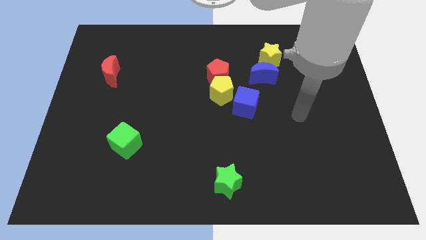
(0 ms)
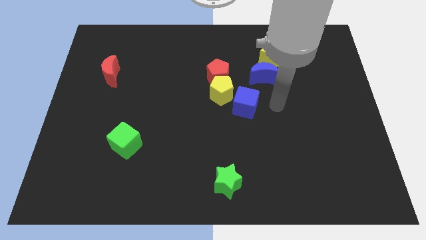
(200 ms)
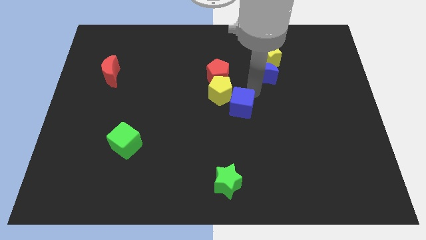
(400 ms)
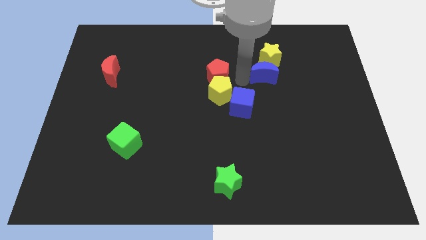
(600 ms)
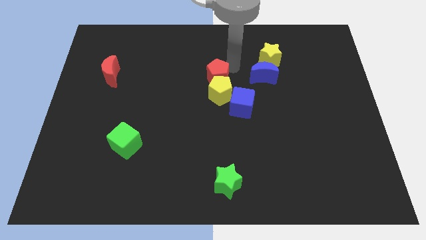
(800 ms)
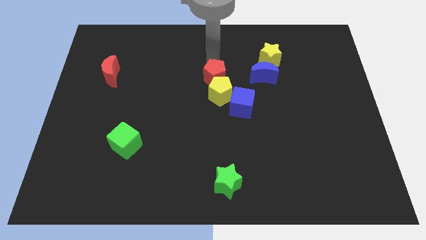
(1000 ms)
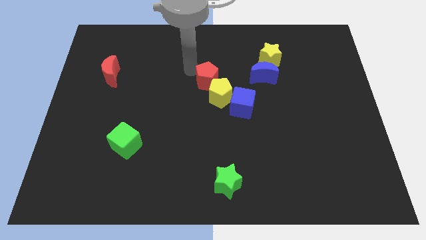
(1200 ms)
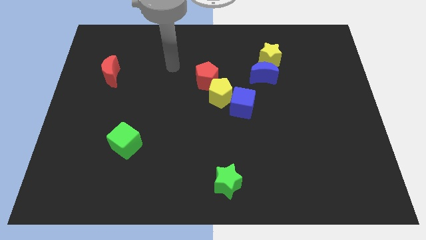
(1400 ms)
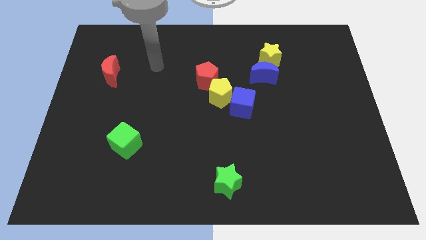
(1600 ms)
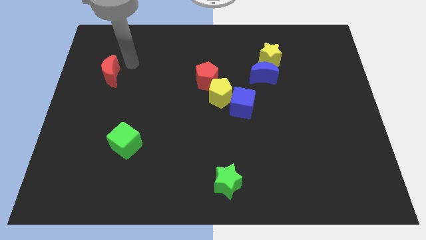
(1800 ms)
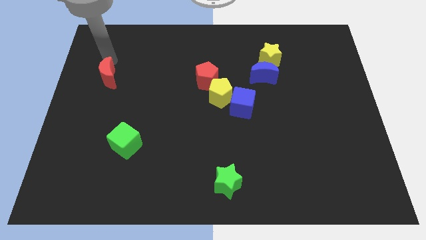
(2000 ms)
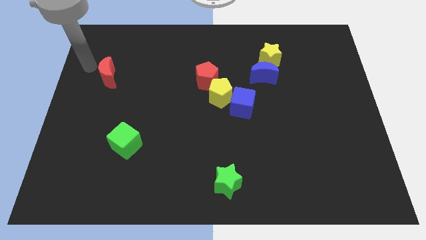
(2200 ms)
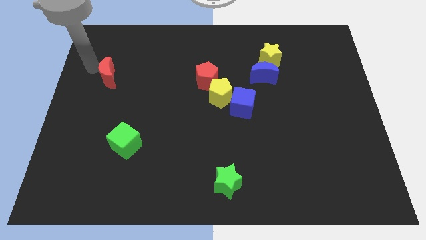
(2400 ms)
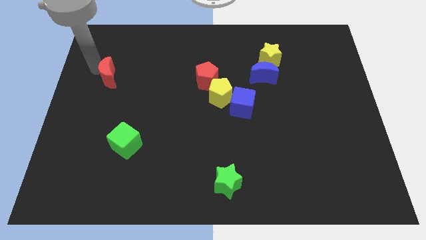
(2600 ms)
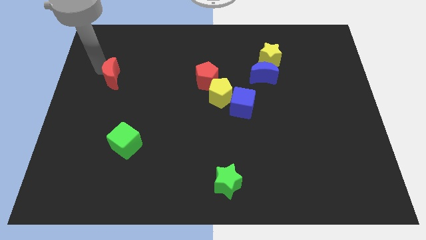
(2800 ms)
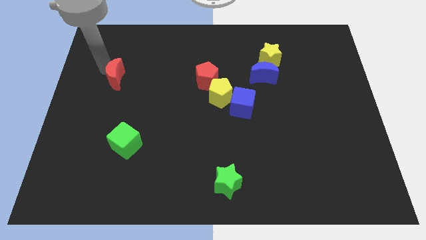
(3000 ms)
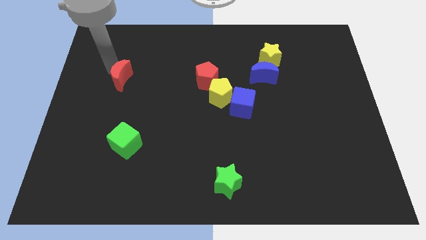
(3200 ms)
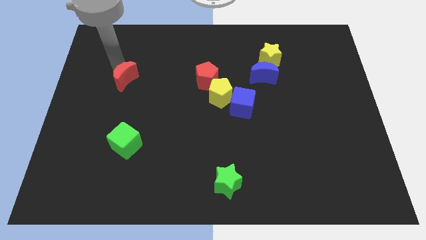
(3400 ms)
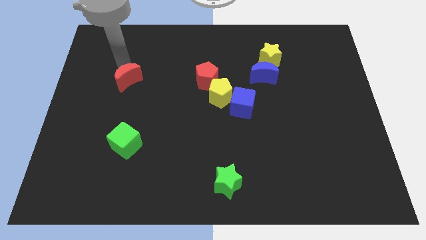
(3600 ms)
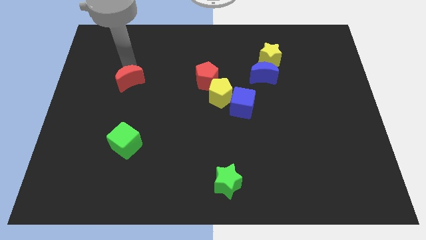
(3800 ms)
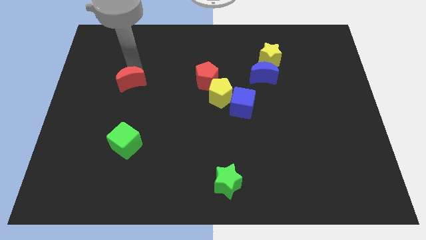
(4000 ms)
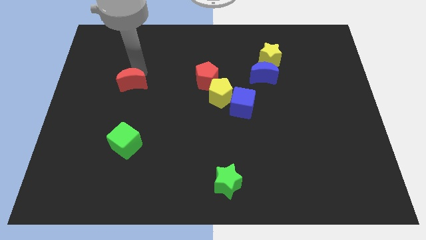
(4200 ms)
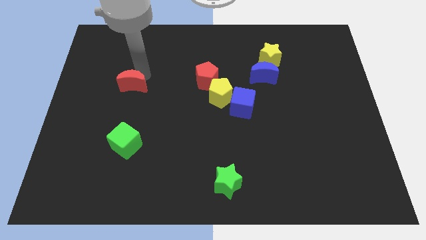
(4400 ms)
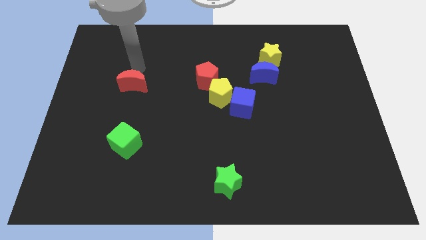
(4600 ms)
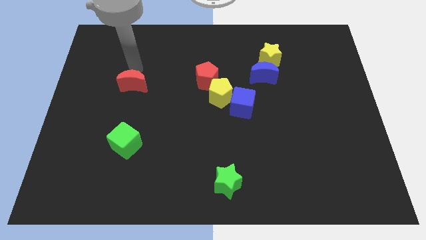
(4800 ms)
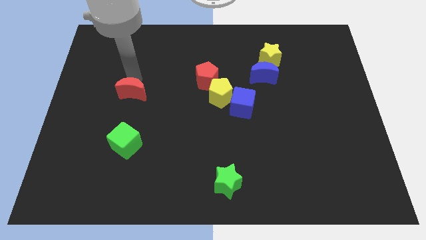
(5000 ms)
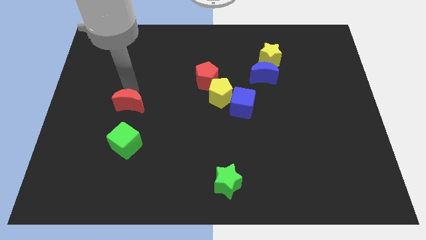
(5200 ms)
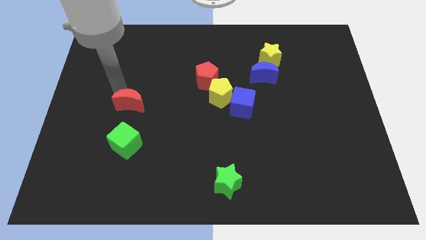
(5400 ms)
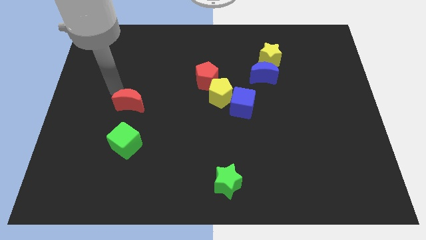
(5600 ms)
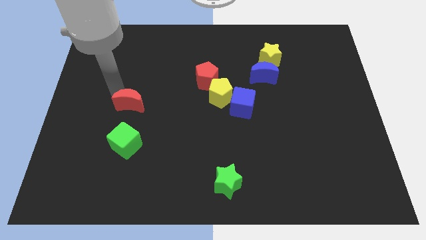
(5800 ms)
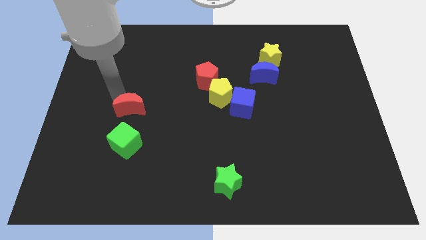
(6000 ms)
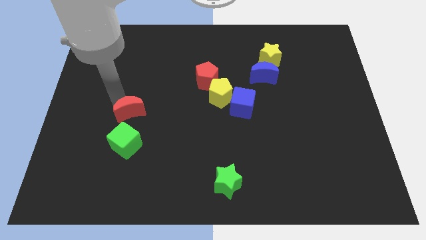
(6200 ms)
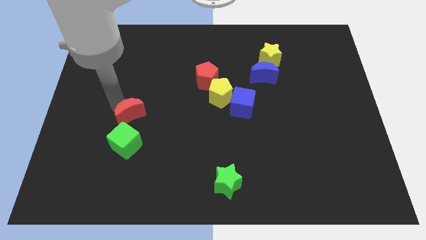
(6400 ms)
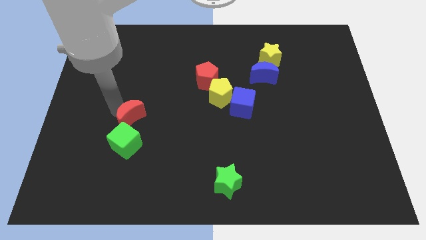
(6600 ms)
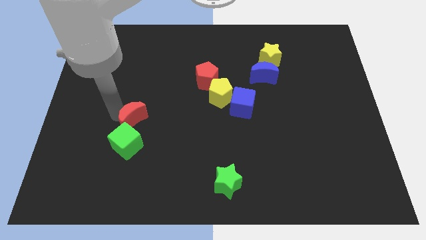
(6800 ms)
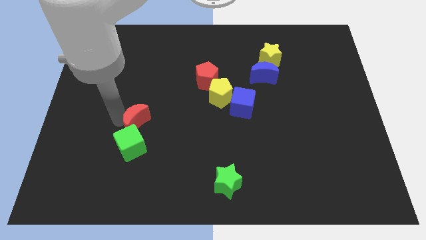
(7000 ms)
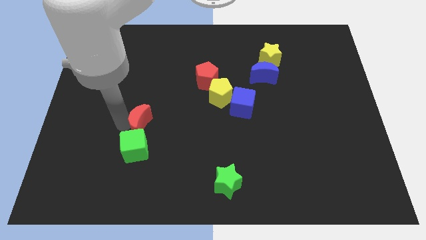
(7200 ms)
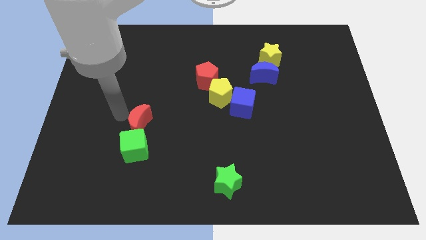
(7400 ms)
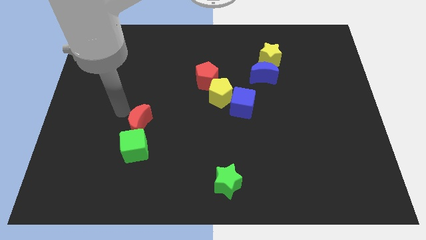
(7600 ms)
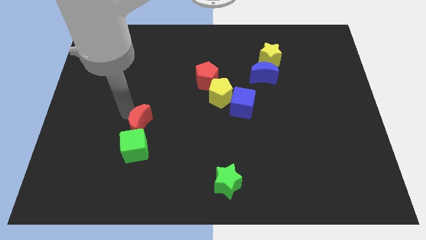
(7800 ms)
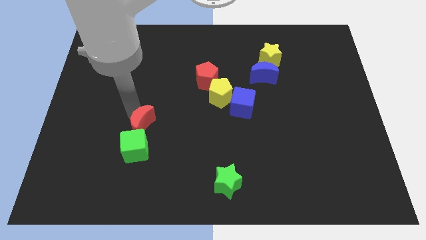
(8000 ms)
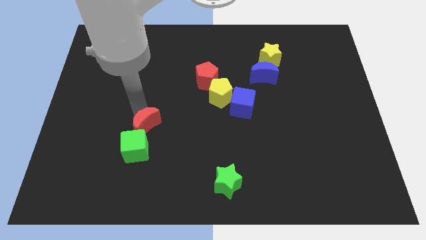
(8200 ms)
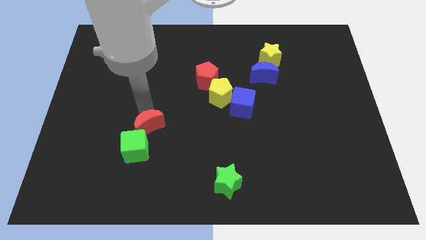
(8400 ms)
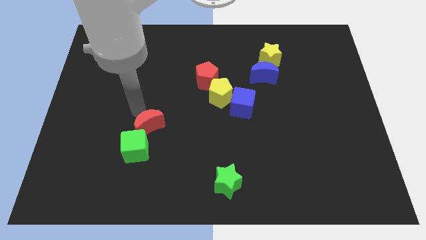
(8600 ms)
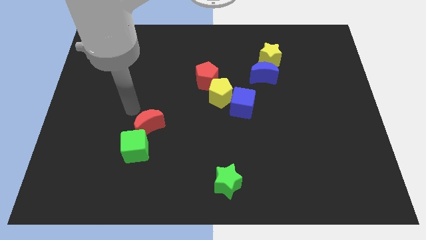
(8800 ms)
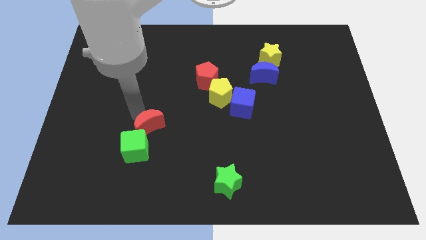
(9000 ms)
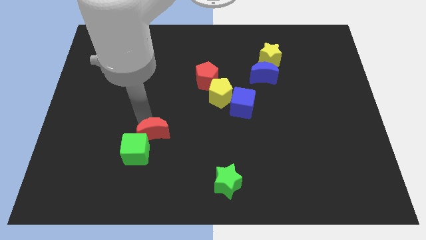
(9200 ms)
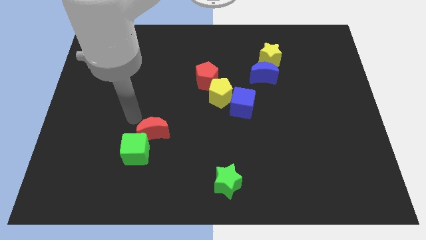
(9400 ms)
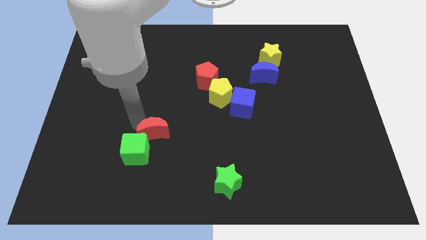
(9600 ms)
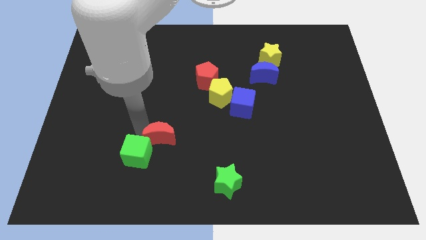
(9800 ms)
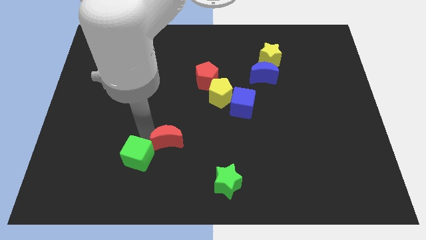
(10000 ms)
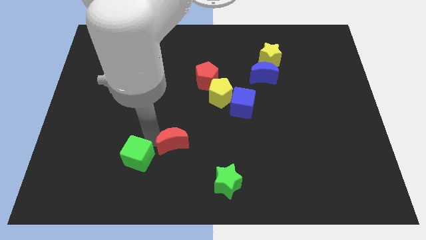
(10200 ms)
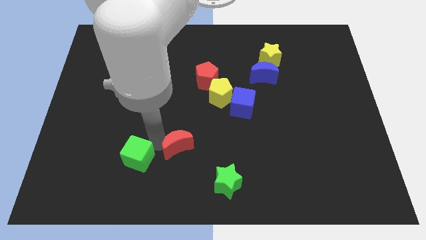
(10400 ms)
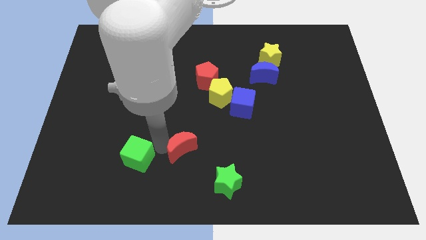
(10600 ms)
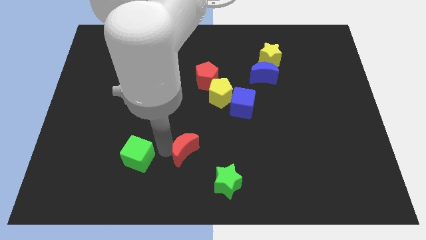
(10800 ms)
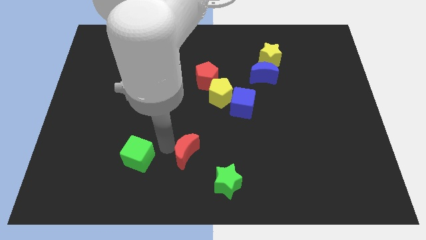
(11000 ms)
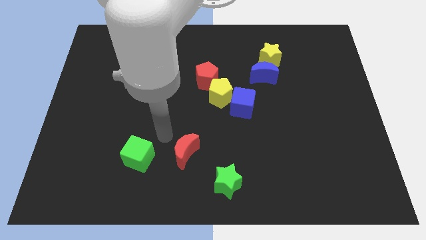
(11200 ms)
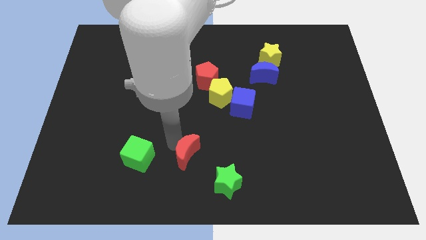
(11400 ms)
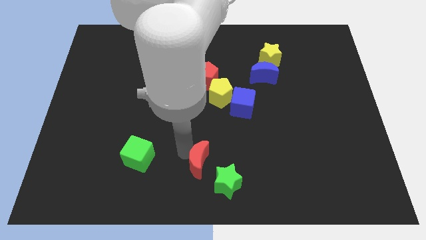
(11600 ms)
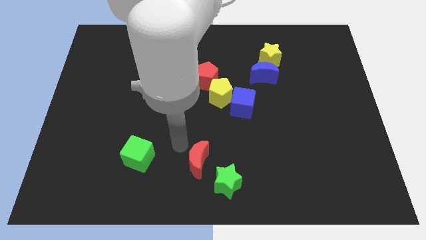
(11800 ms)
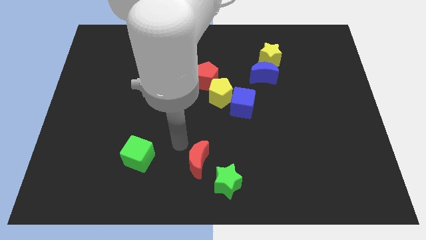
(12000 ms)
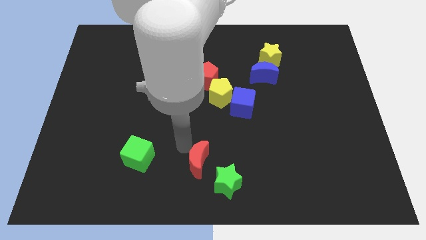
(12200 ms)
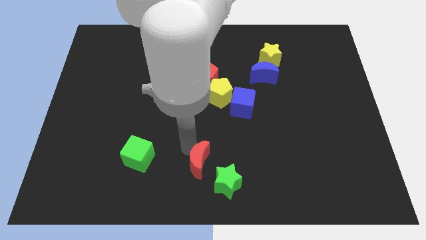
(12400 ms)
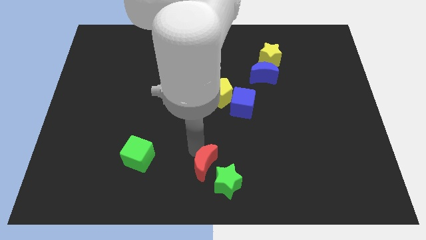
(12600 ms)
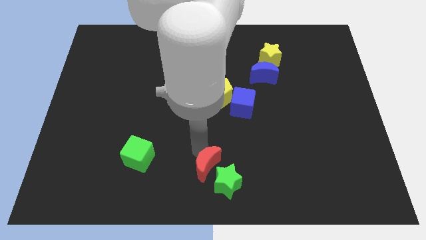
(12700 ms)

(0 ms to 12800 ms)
slide the red moon next to the green star

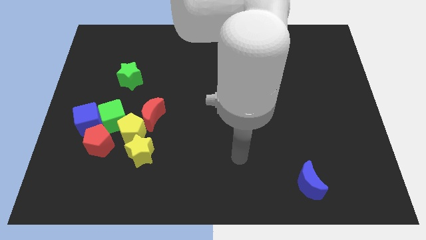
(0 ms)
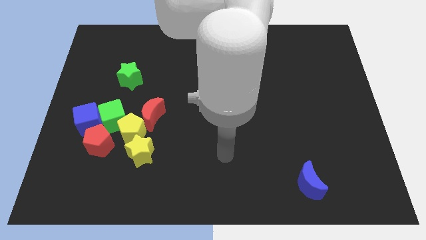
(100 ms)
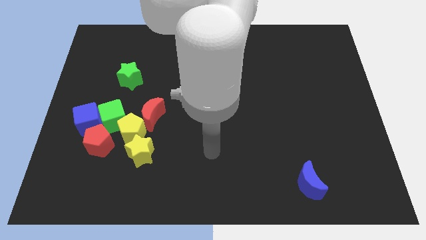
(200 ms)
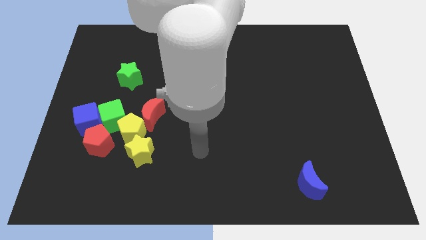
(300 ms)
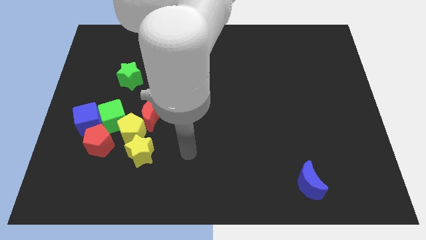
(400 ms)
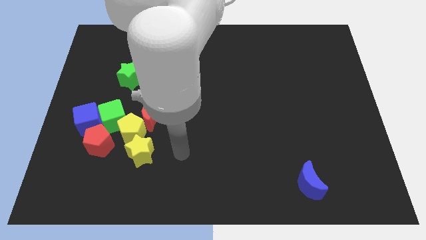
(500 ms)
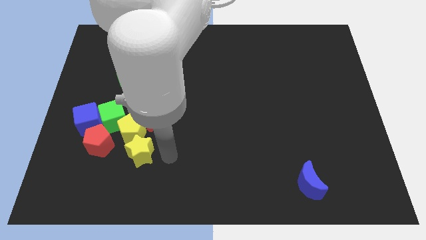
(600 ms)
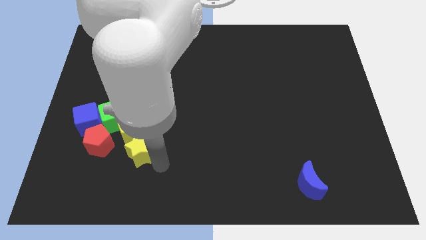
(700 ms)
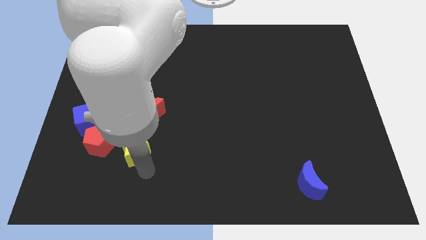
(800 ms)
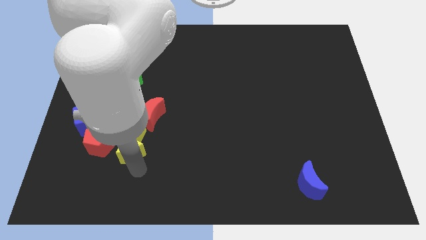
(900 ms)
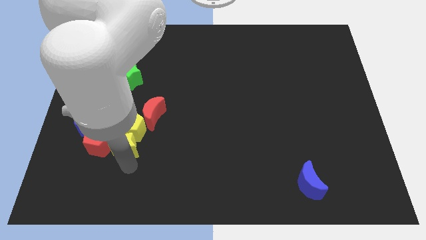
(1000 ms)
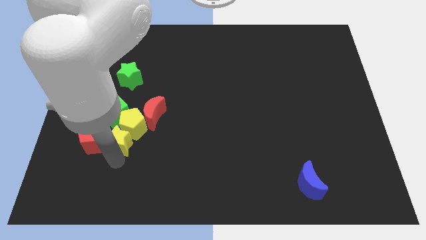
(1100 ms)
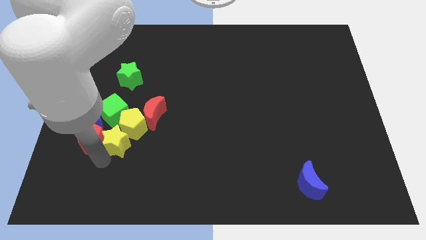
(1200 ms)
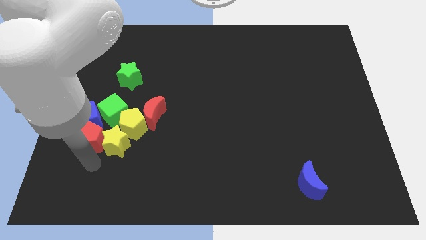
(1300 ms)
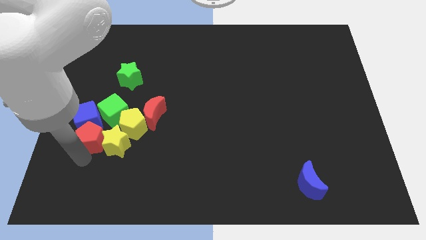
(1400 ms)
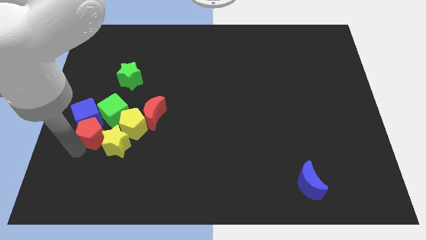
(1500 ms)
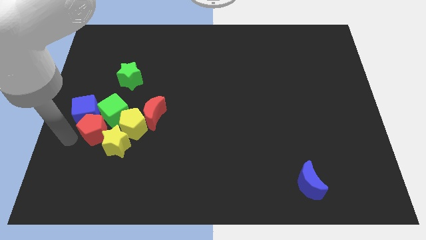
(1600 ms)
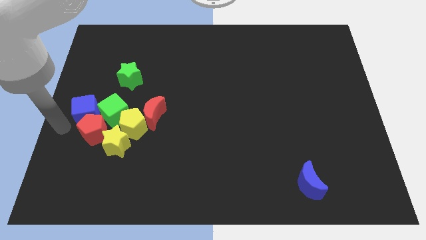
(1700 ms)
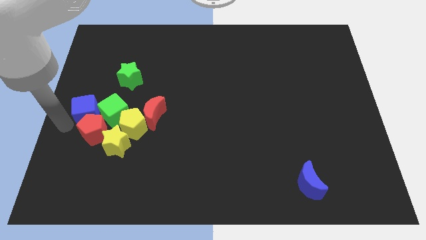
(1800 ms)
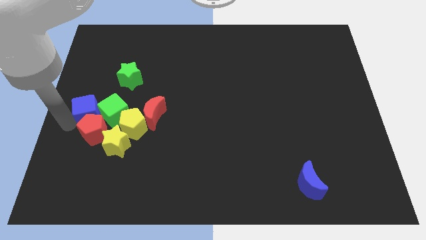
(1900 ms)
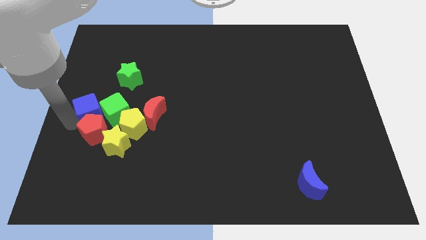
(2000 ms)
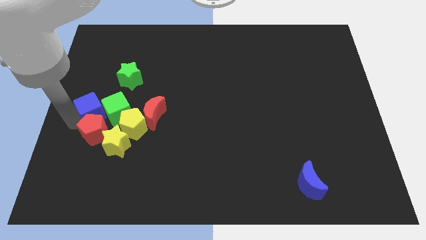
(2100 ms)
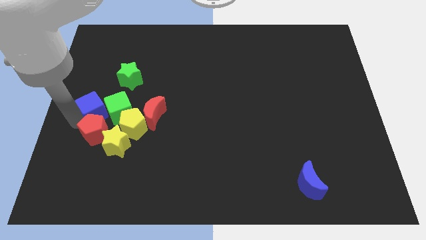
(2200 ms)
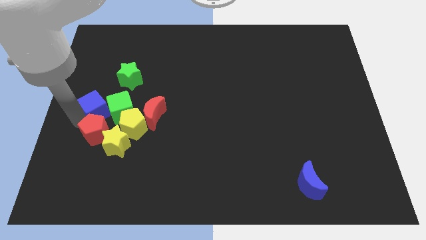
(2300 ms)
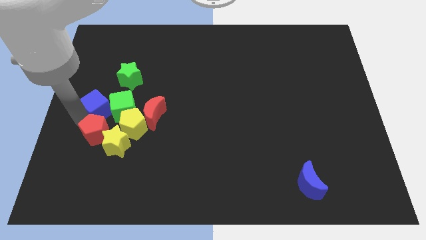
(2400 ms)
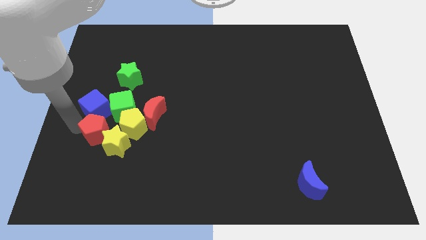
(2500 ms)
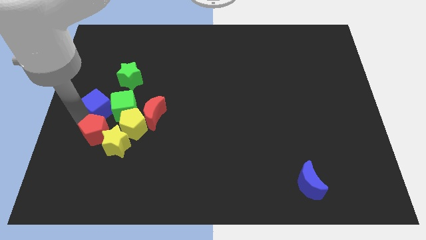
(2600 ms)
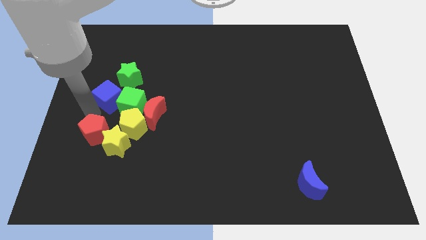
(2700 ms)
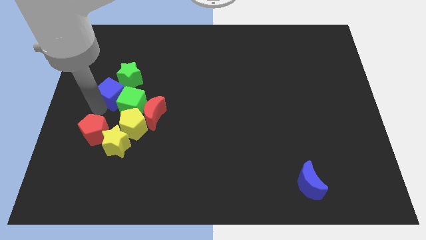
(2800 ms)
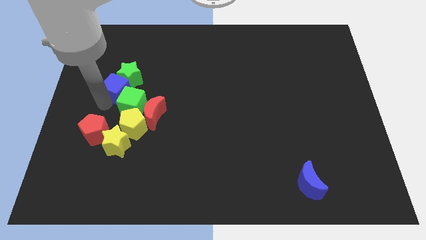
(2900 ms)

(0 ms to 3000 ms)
push the blue cube towards the green star
